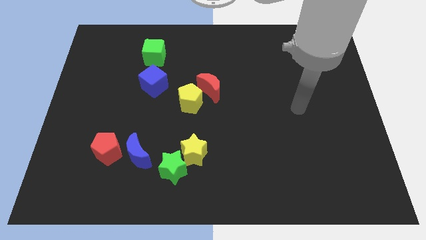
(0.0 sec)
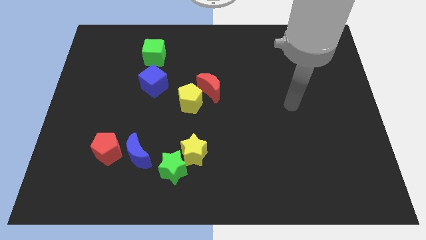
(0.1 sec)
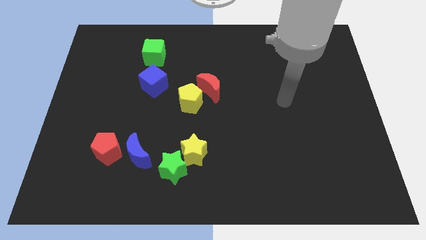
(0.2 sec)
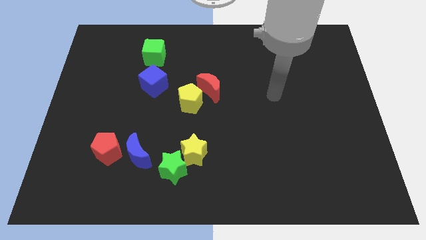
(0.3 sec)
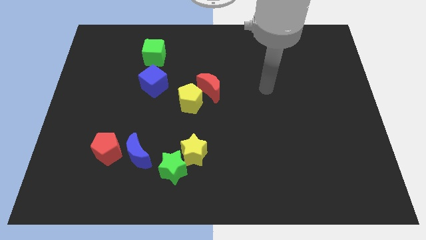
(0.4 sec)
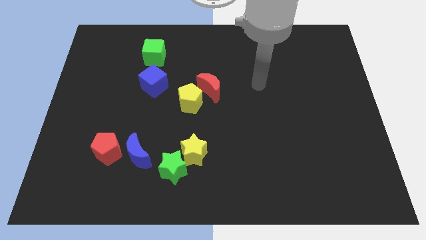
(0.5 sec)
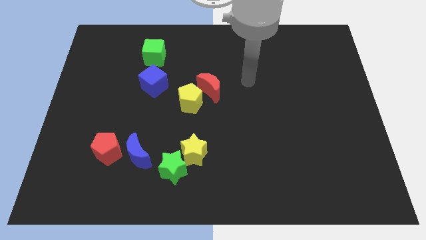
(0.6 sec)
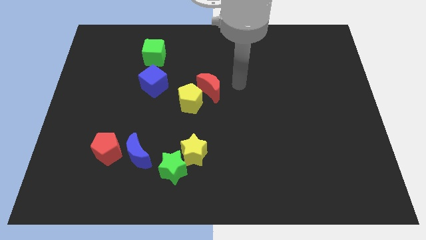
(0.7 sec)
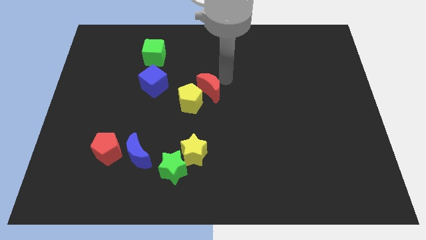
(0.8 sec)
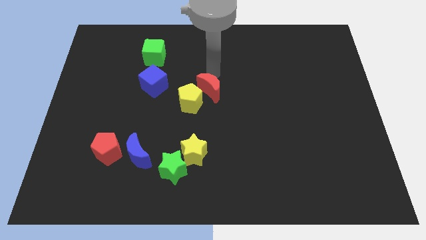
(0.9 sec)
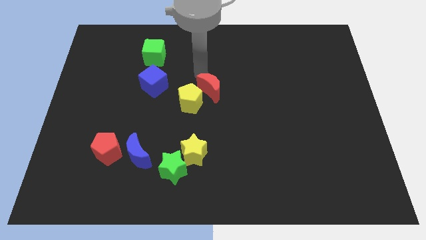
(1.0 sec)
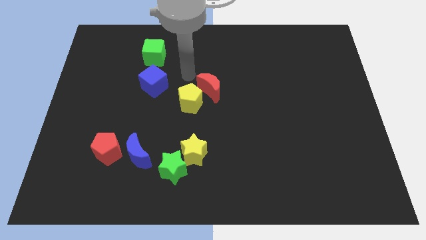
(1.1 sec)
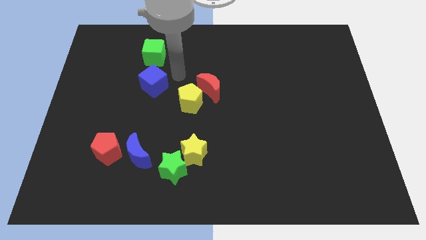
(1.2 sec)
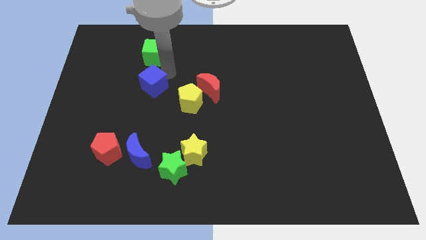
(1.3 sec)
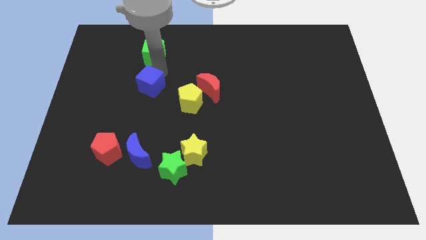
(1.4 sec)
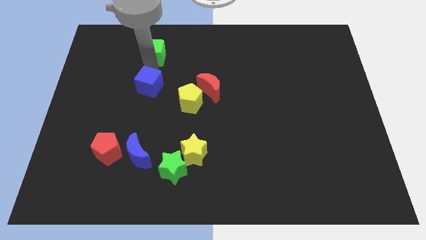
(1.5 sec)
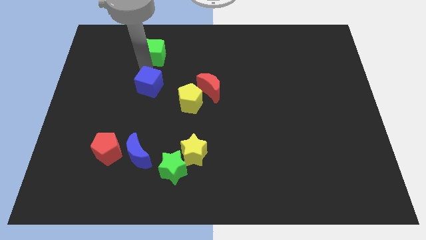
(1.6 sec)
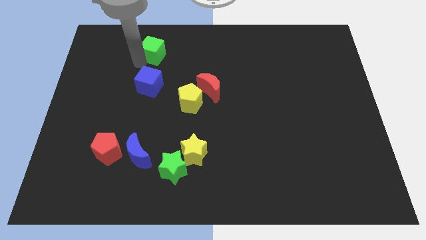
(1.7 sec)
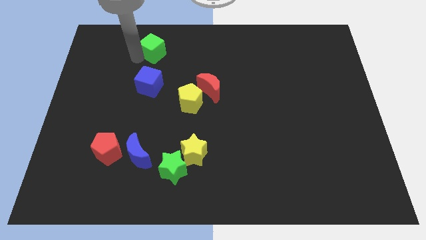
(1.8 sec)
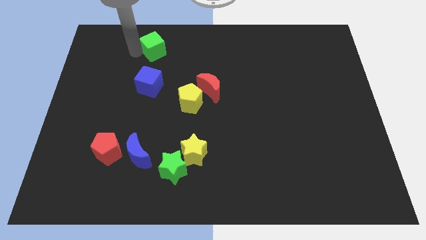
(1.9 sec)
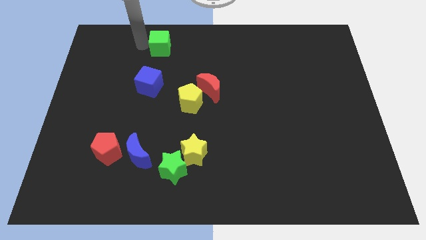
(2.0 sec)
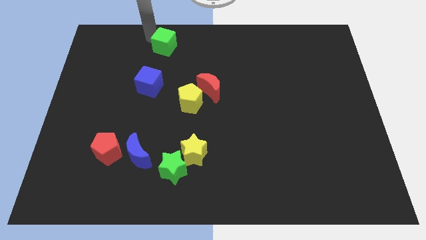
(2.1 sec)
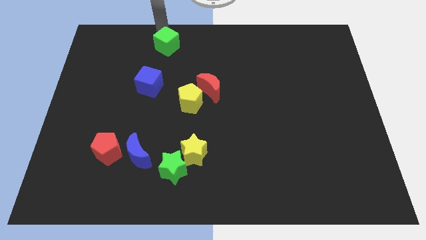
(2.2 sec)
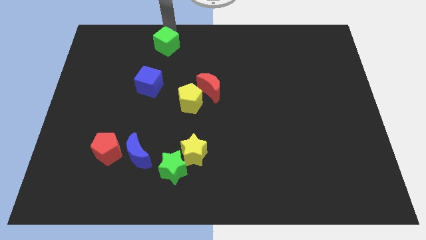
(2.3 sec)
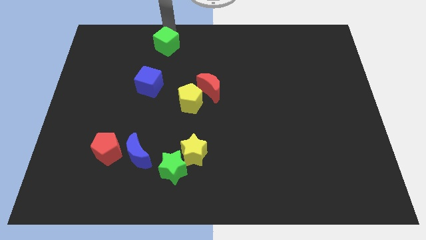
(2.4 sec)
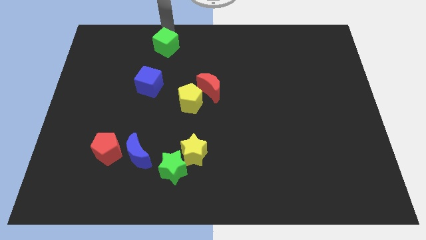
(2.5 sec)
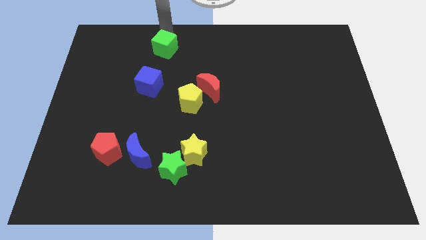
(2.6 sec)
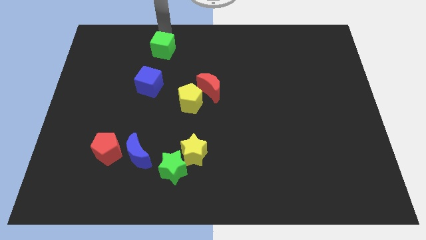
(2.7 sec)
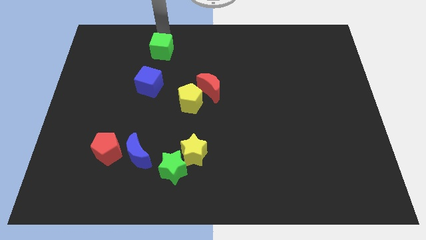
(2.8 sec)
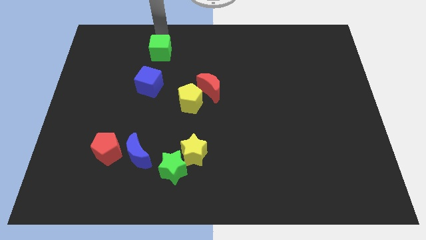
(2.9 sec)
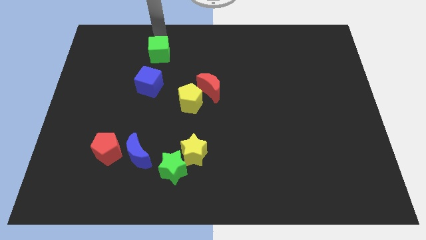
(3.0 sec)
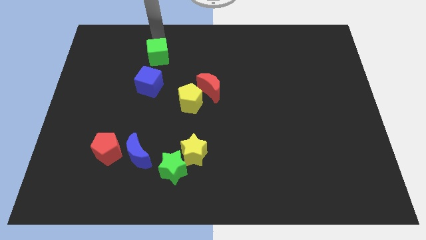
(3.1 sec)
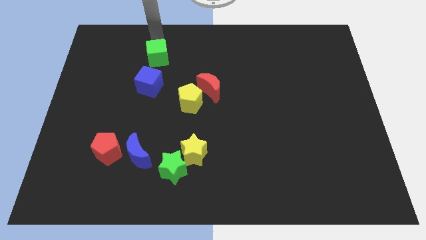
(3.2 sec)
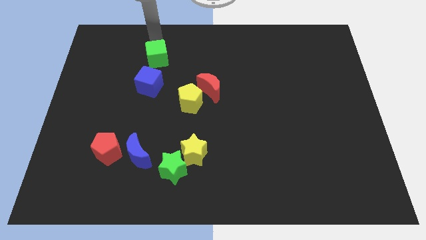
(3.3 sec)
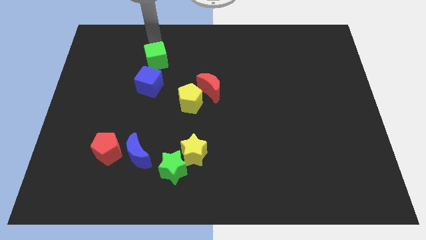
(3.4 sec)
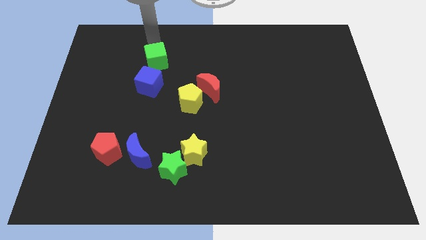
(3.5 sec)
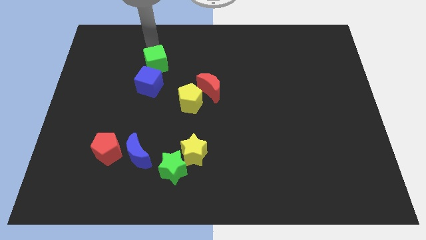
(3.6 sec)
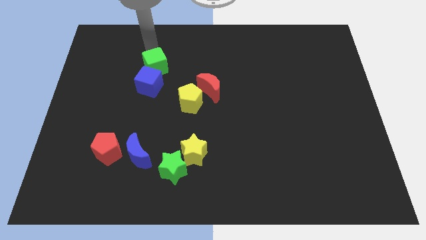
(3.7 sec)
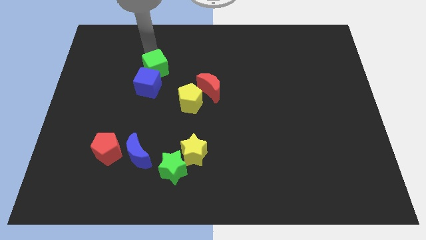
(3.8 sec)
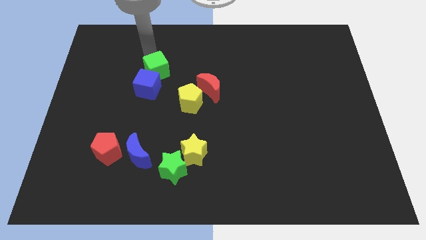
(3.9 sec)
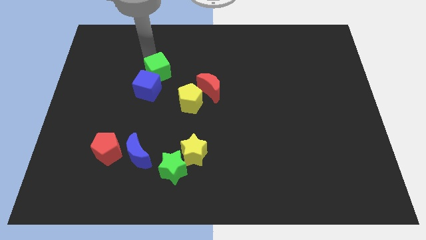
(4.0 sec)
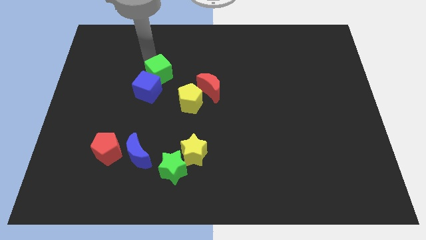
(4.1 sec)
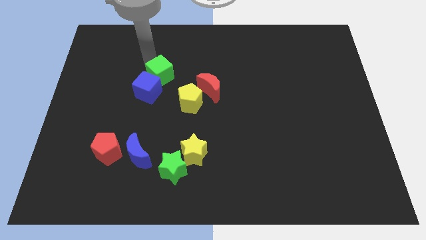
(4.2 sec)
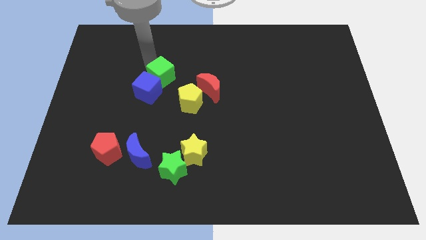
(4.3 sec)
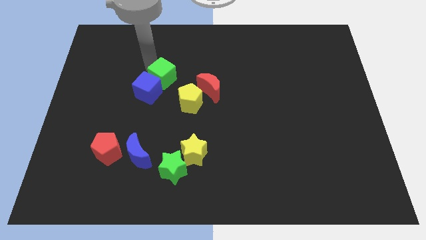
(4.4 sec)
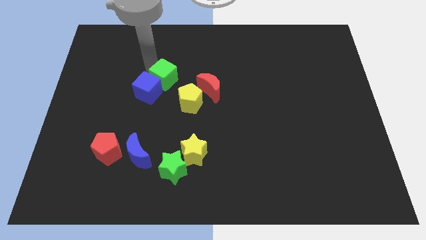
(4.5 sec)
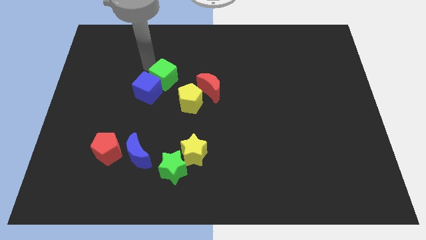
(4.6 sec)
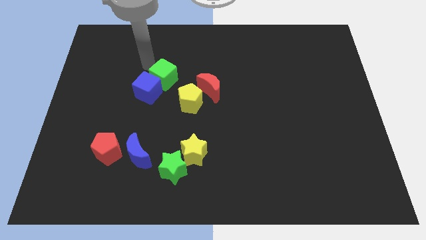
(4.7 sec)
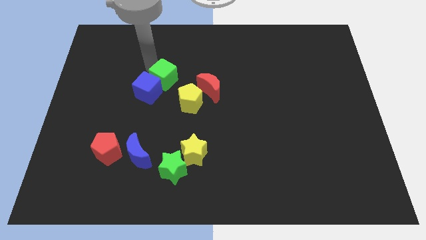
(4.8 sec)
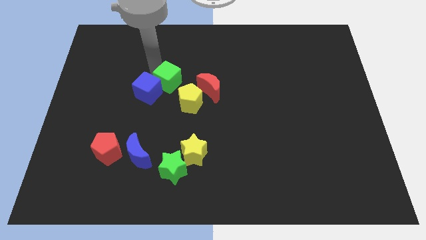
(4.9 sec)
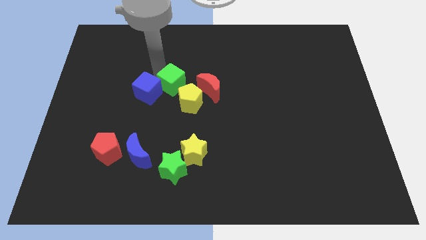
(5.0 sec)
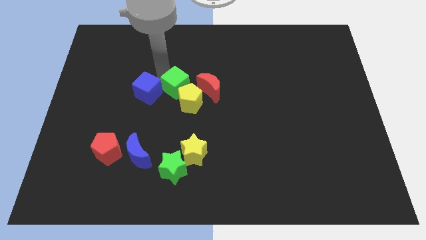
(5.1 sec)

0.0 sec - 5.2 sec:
push the green cube next to the yellow pentagon
